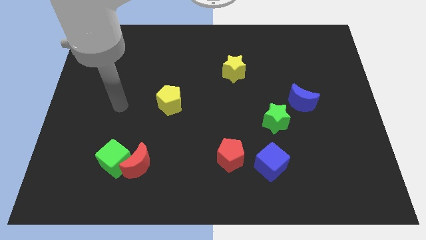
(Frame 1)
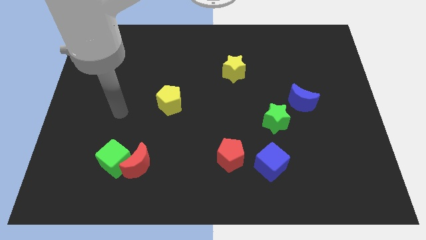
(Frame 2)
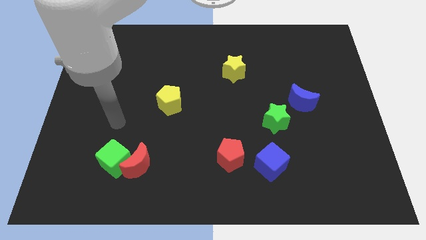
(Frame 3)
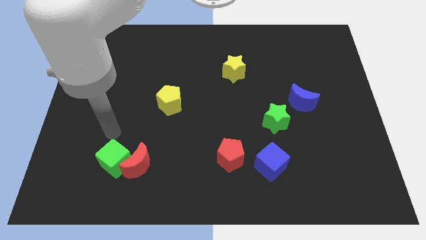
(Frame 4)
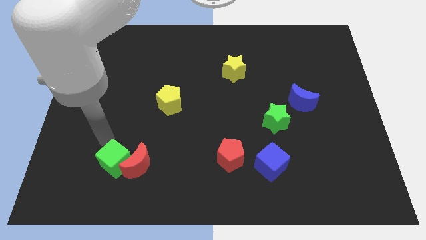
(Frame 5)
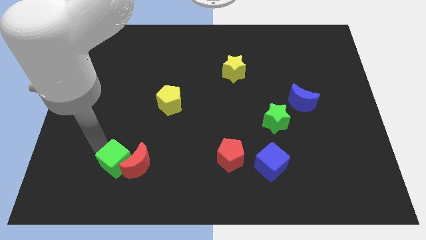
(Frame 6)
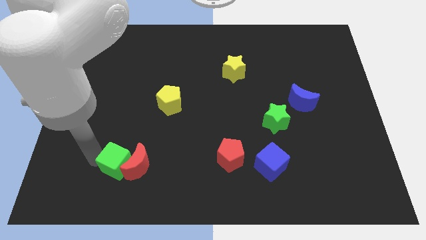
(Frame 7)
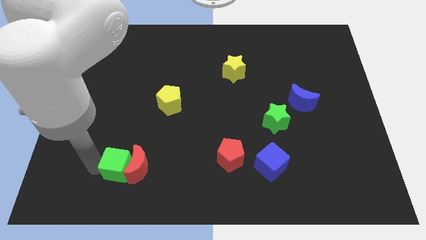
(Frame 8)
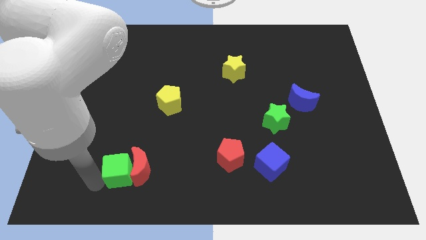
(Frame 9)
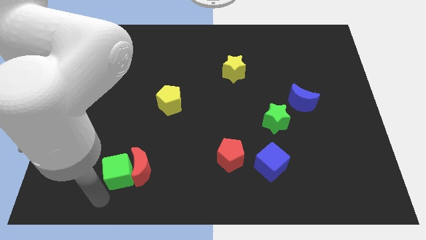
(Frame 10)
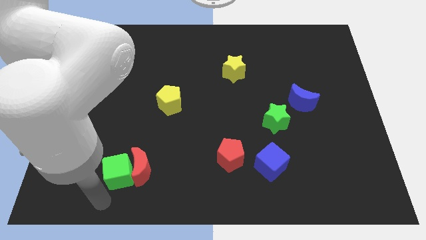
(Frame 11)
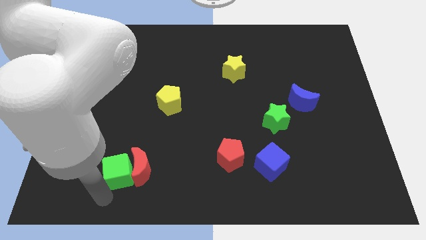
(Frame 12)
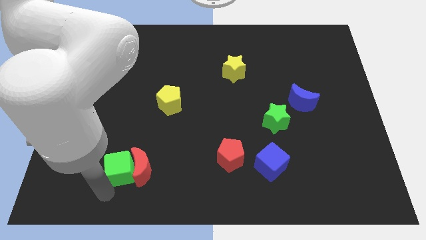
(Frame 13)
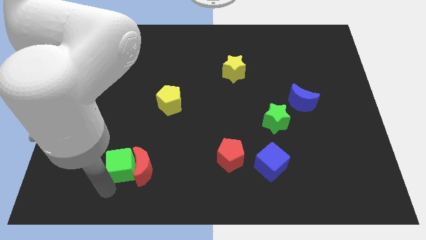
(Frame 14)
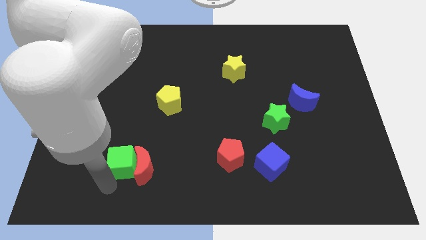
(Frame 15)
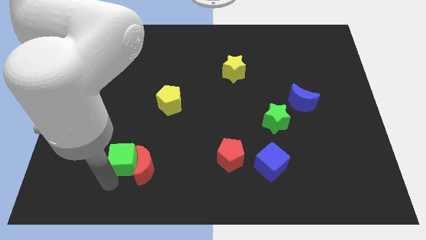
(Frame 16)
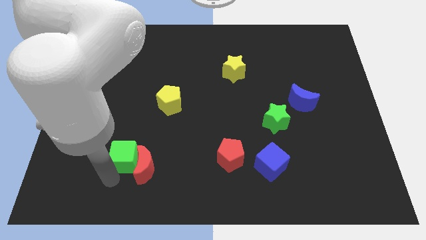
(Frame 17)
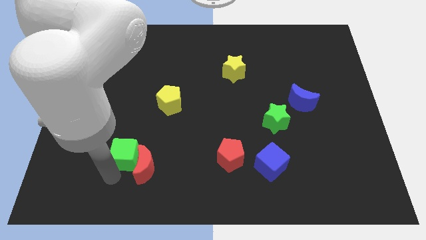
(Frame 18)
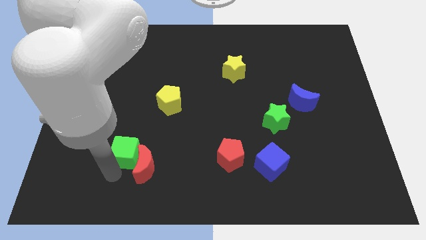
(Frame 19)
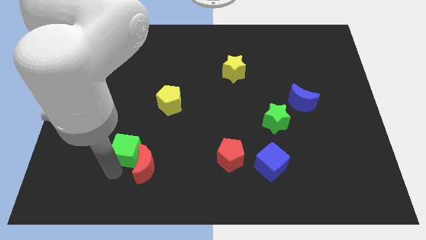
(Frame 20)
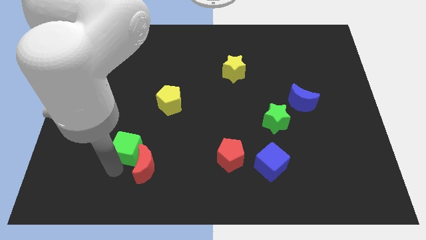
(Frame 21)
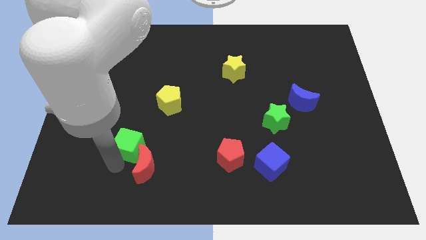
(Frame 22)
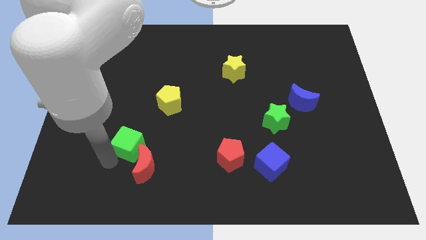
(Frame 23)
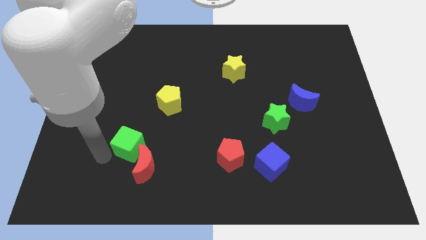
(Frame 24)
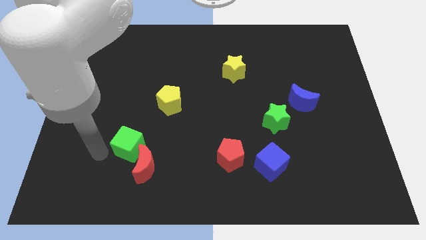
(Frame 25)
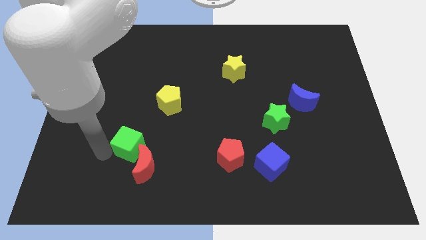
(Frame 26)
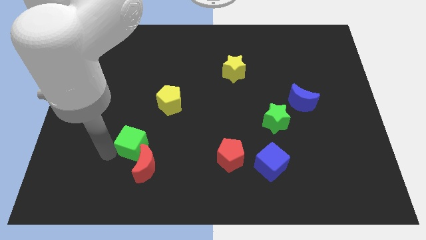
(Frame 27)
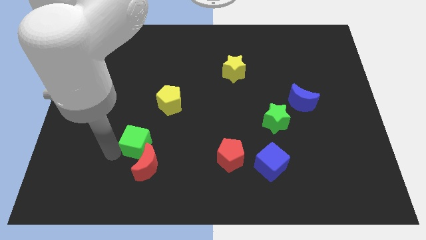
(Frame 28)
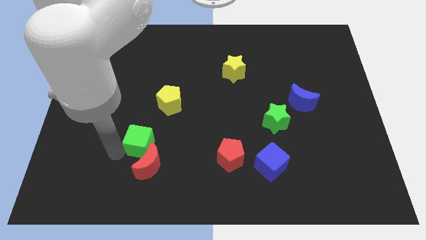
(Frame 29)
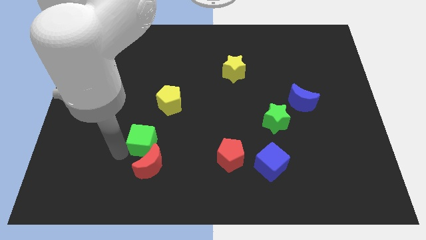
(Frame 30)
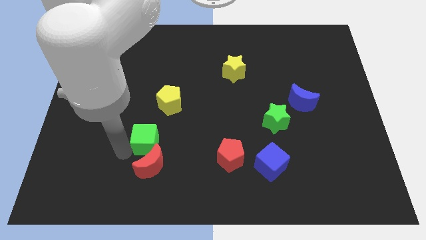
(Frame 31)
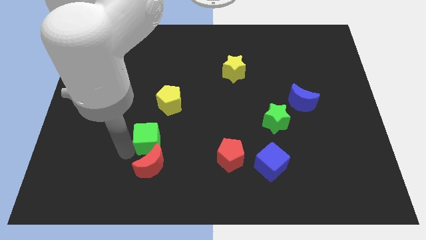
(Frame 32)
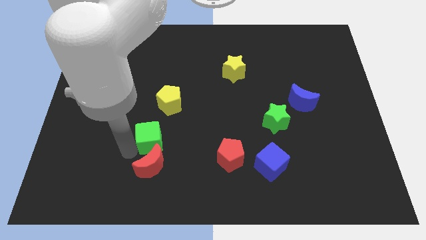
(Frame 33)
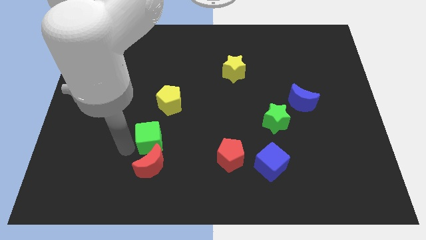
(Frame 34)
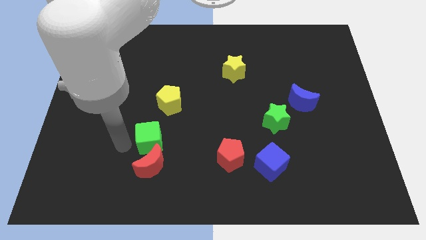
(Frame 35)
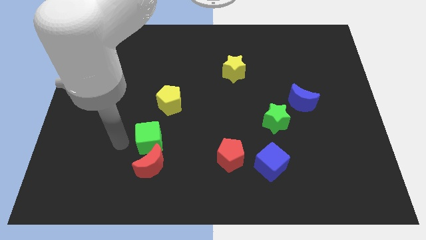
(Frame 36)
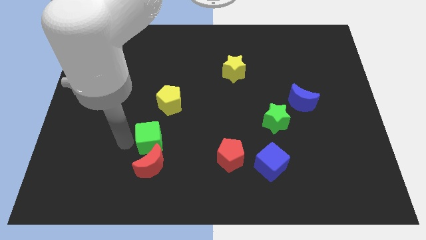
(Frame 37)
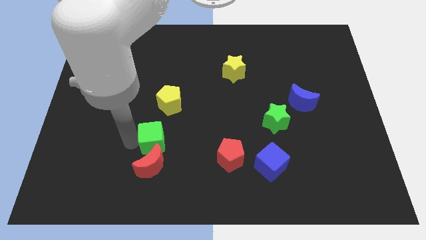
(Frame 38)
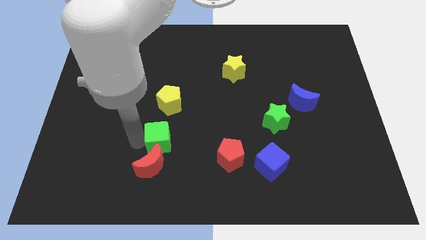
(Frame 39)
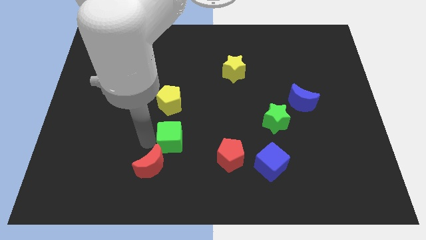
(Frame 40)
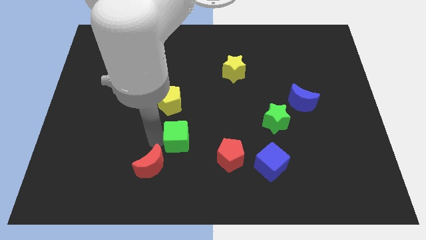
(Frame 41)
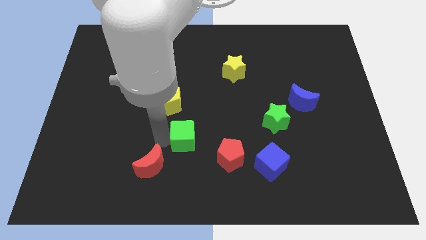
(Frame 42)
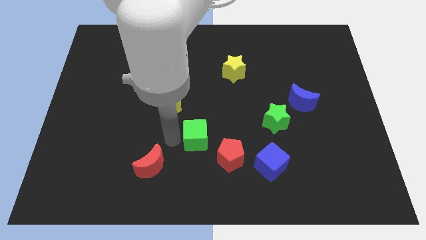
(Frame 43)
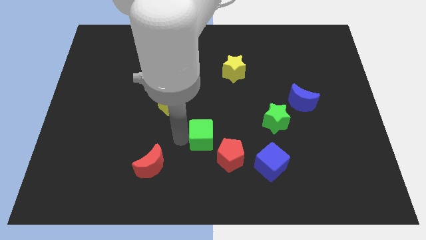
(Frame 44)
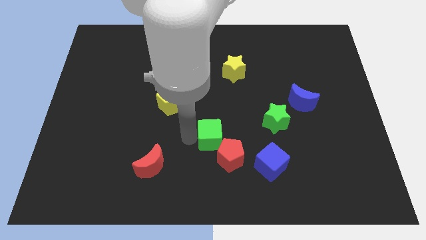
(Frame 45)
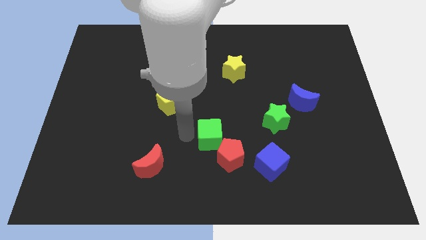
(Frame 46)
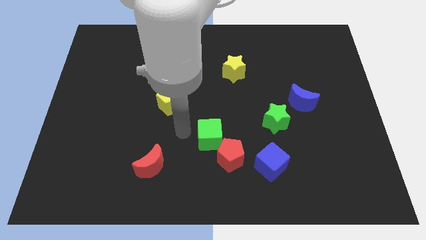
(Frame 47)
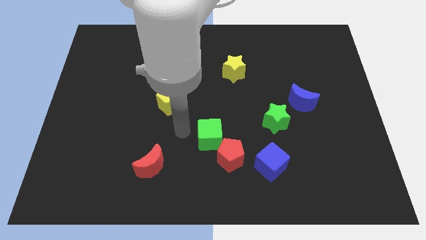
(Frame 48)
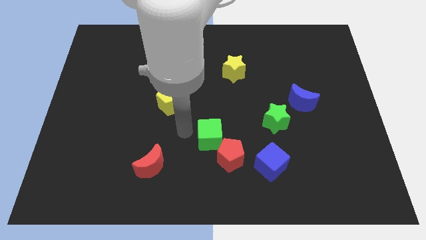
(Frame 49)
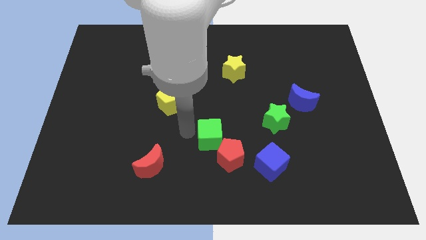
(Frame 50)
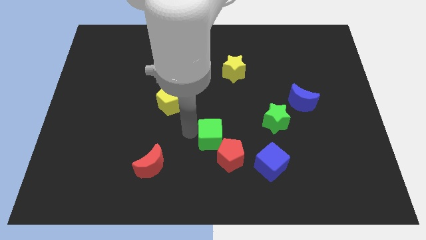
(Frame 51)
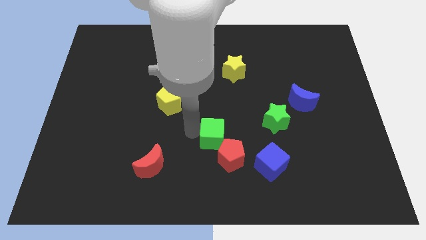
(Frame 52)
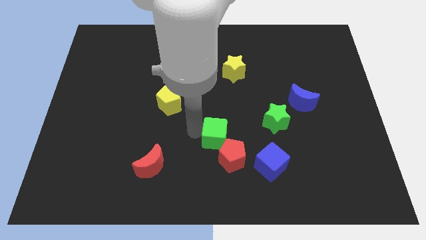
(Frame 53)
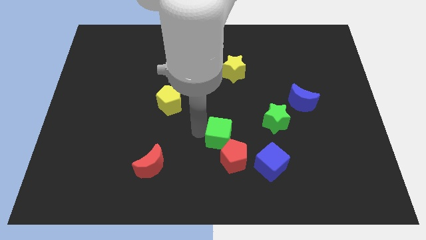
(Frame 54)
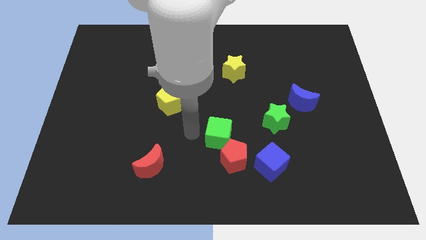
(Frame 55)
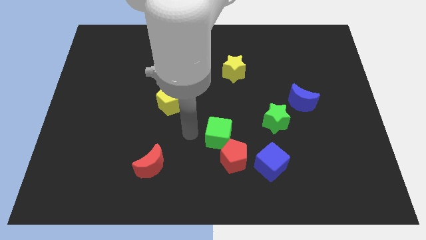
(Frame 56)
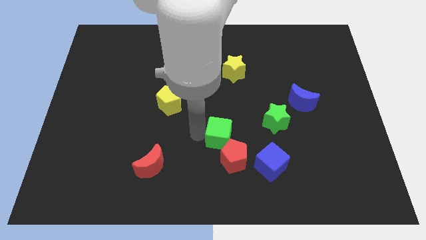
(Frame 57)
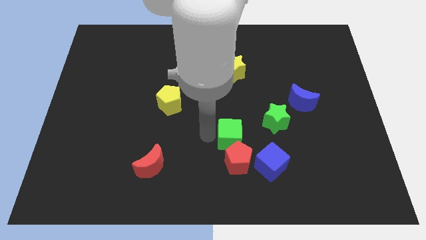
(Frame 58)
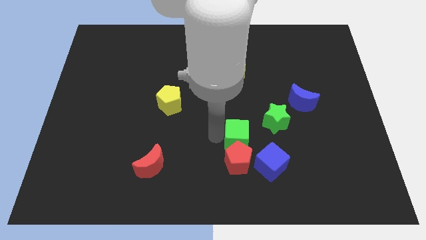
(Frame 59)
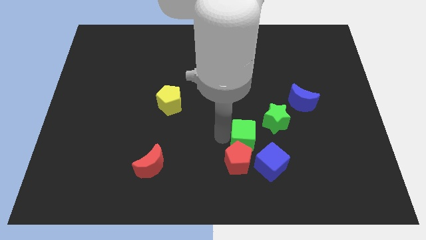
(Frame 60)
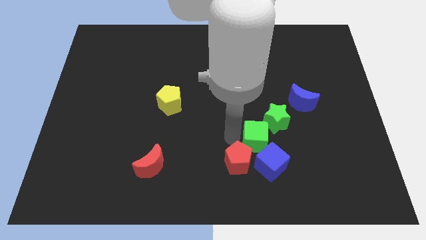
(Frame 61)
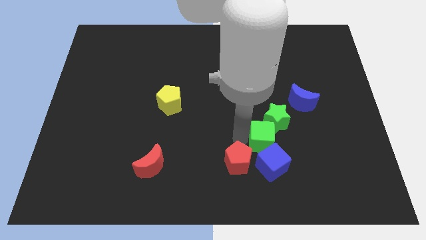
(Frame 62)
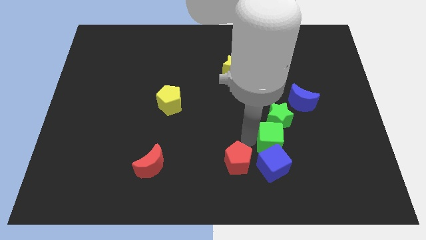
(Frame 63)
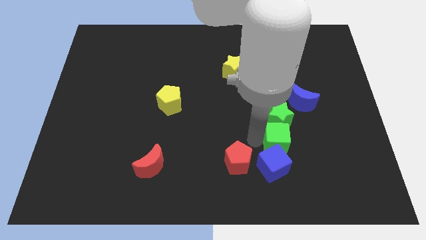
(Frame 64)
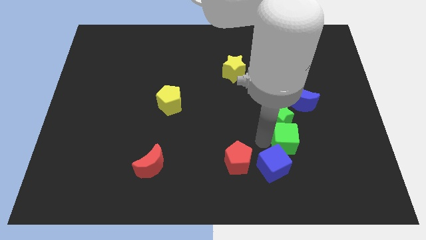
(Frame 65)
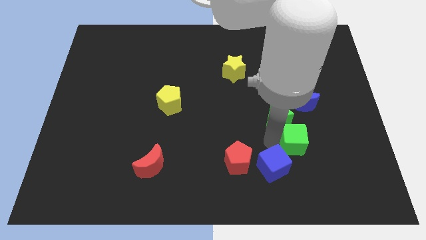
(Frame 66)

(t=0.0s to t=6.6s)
put the green cube to the bottom of the blue moon
